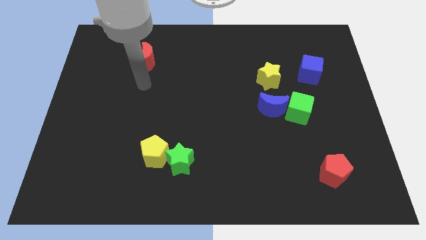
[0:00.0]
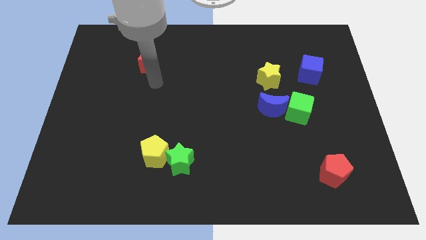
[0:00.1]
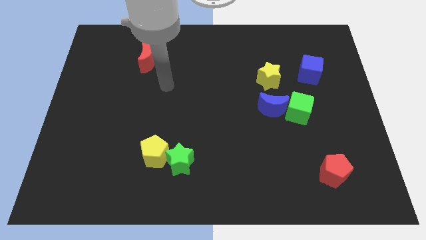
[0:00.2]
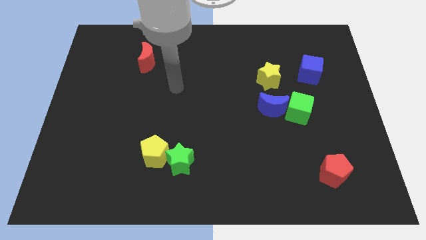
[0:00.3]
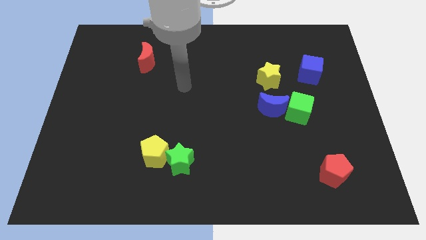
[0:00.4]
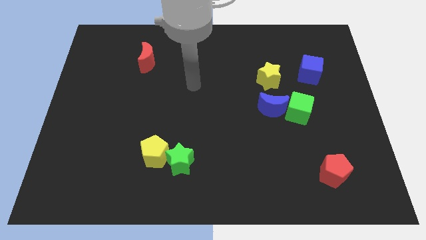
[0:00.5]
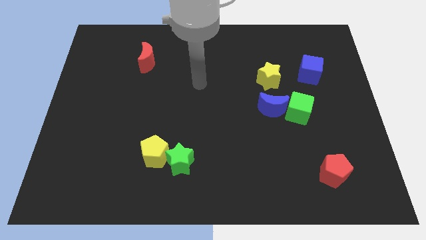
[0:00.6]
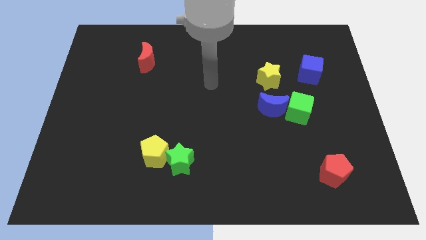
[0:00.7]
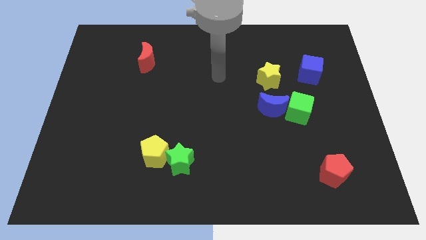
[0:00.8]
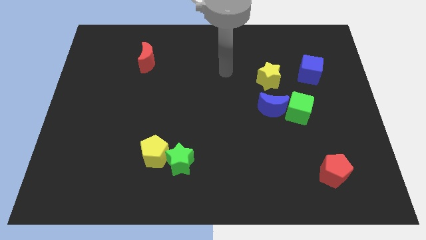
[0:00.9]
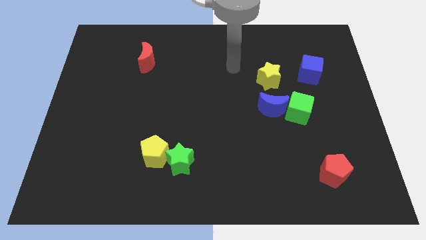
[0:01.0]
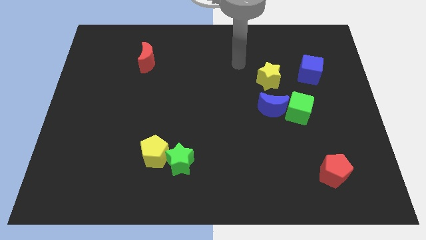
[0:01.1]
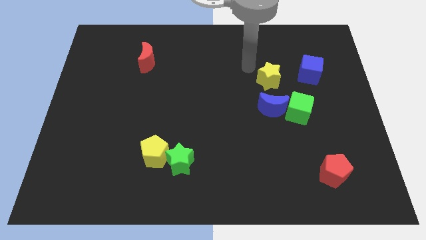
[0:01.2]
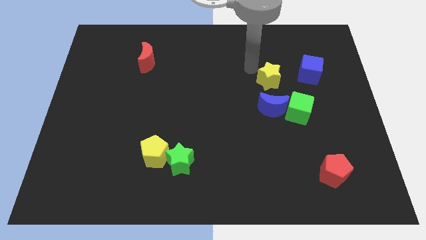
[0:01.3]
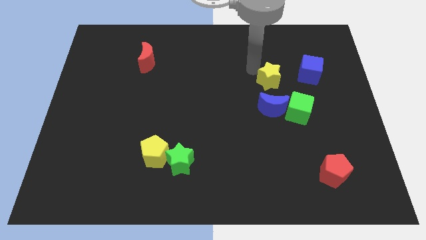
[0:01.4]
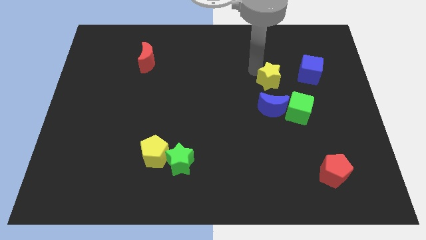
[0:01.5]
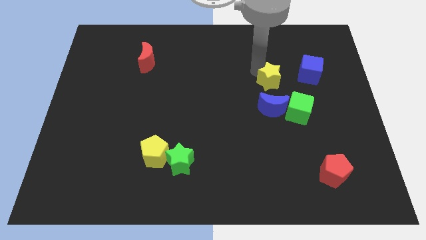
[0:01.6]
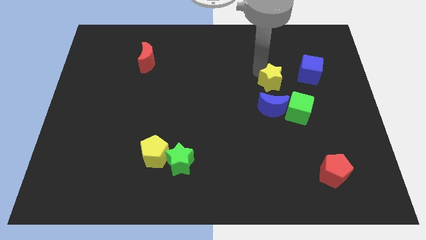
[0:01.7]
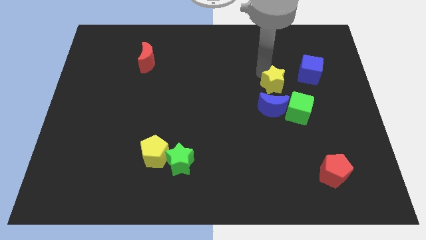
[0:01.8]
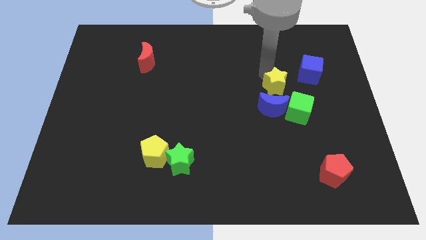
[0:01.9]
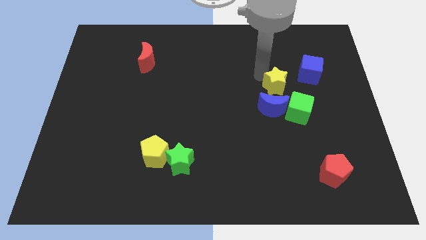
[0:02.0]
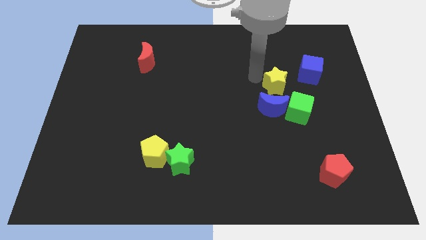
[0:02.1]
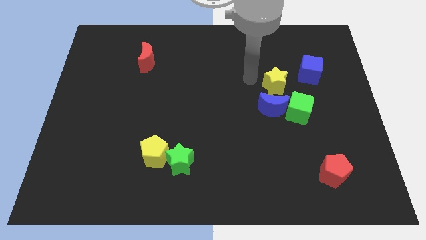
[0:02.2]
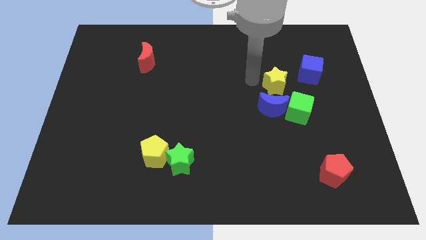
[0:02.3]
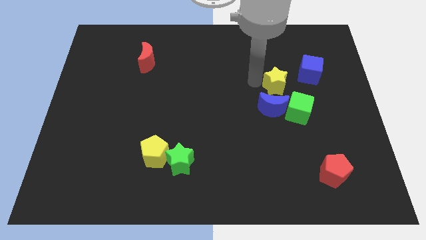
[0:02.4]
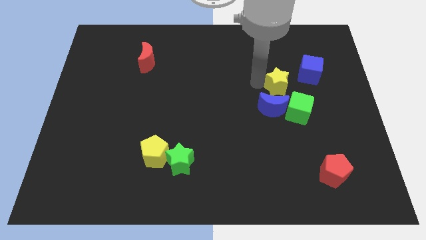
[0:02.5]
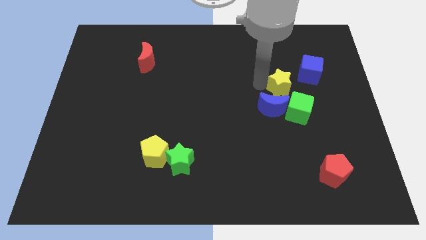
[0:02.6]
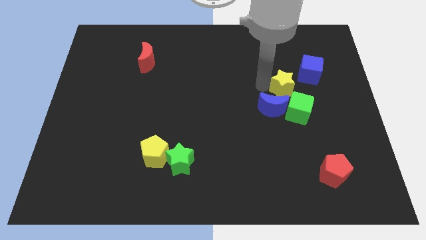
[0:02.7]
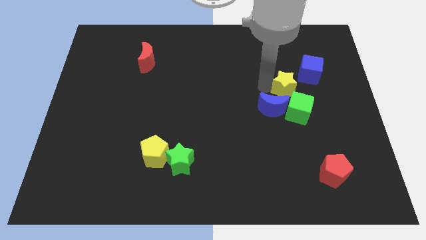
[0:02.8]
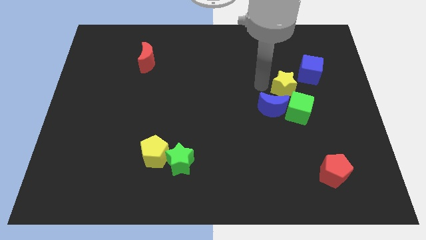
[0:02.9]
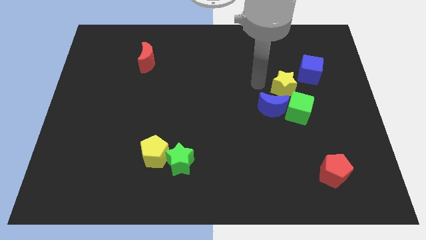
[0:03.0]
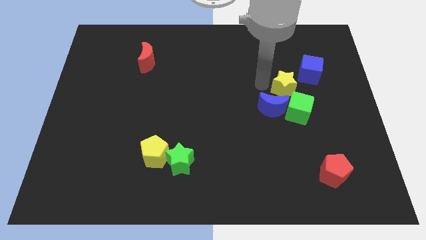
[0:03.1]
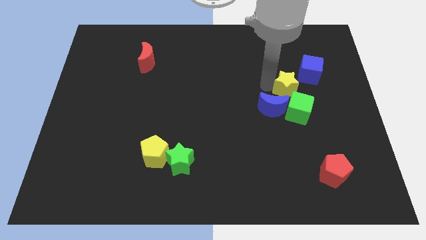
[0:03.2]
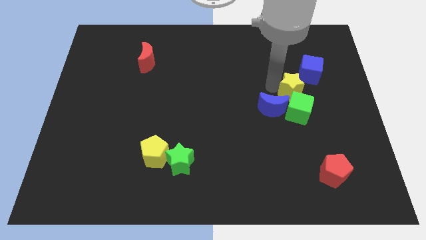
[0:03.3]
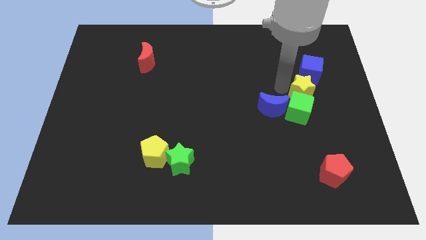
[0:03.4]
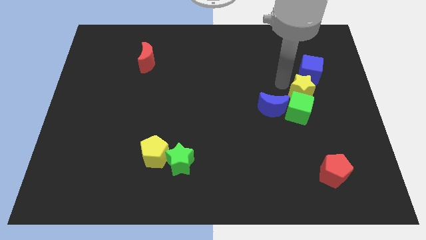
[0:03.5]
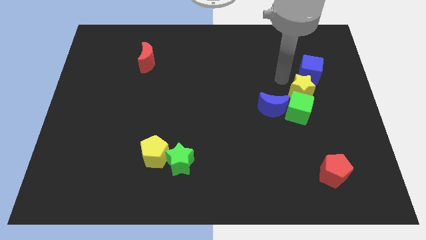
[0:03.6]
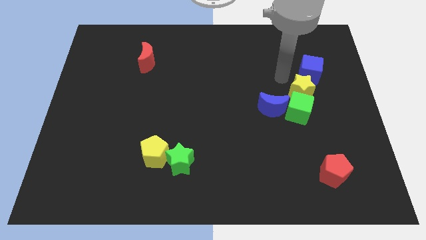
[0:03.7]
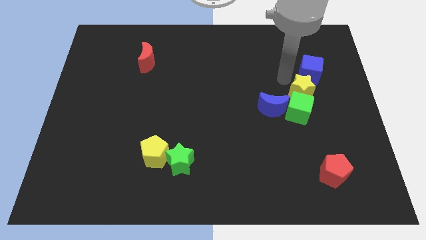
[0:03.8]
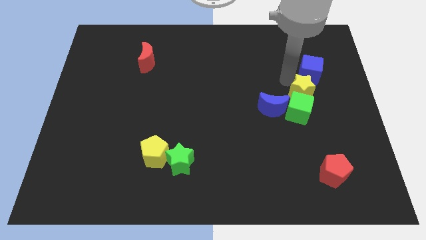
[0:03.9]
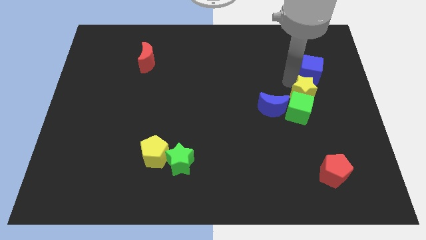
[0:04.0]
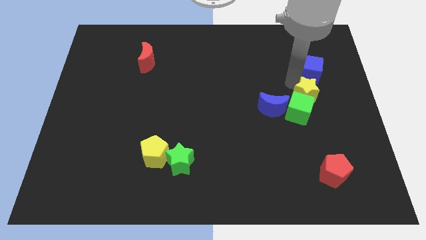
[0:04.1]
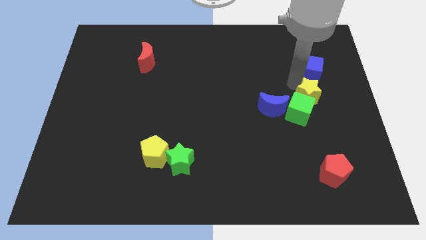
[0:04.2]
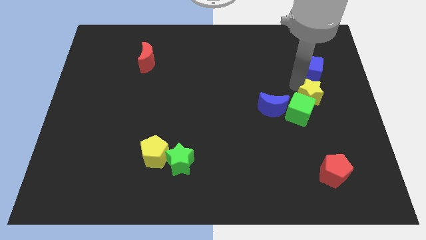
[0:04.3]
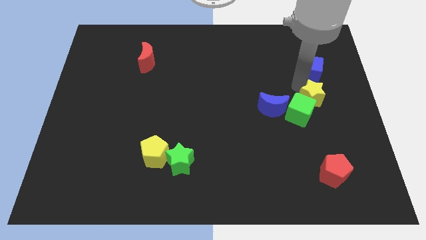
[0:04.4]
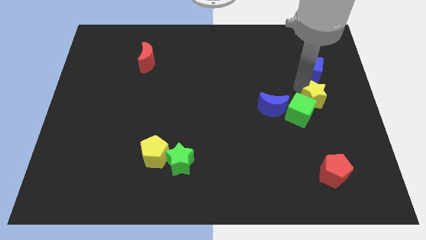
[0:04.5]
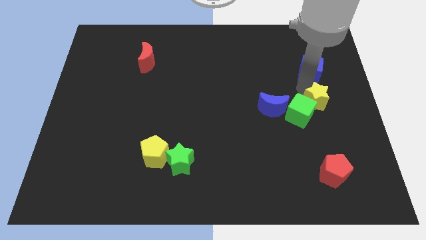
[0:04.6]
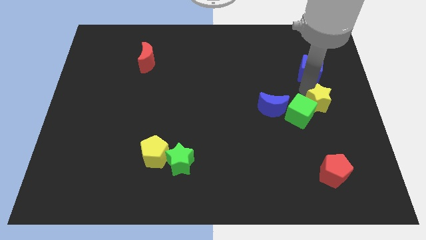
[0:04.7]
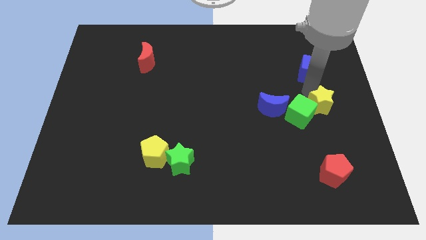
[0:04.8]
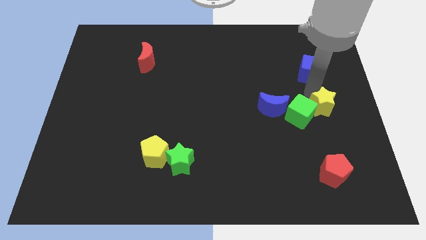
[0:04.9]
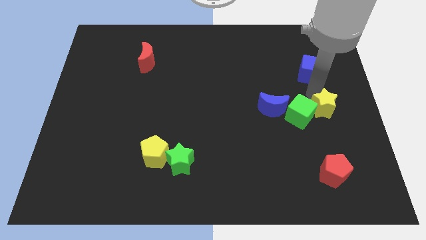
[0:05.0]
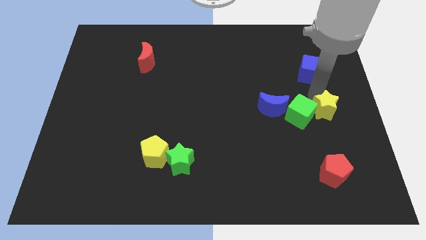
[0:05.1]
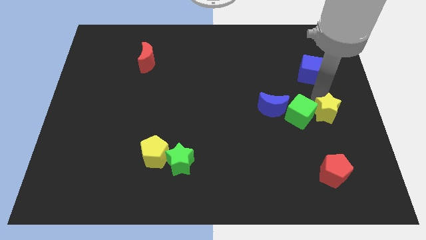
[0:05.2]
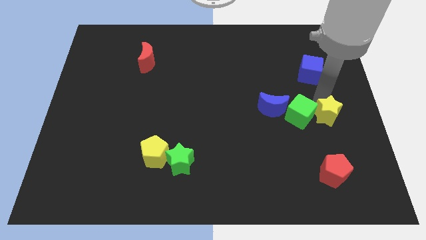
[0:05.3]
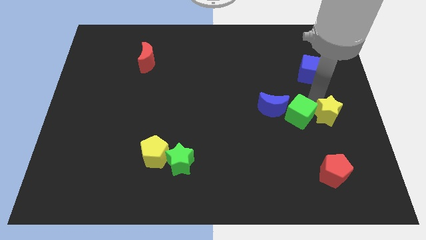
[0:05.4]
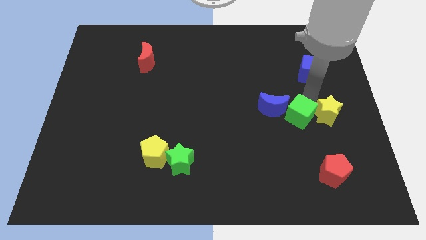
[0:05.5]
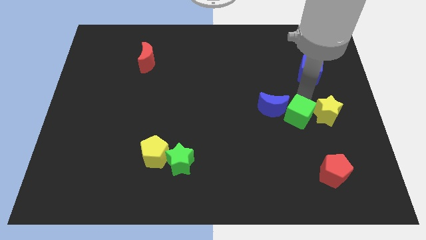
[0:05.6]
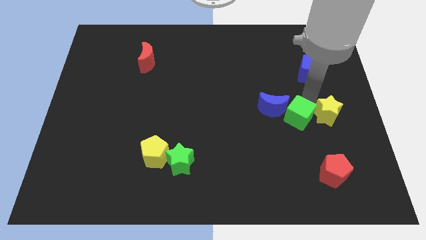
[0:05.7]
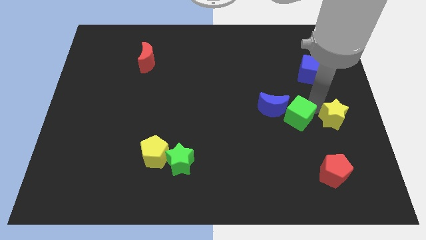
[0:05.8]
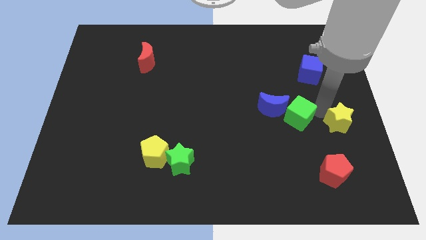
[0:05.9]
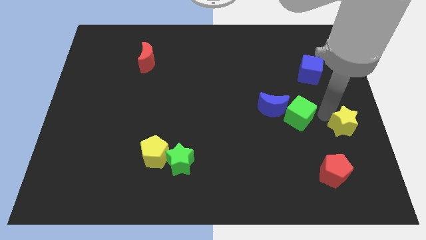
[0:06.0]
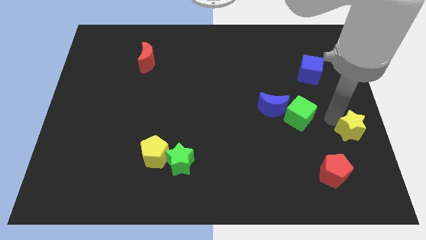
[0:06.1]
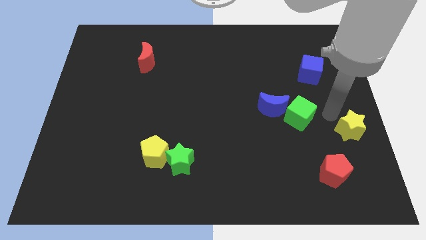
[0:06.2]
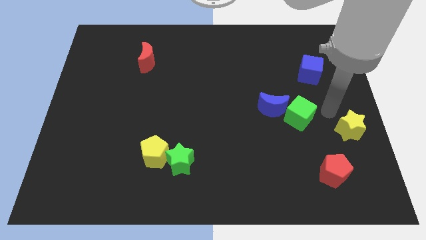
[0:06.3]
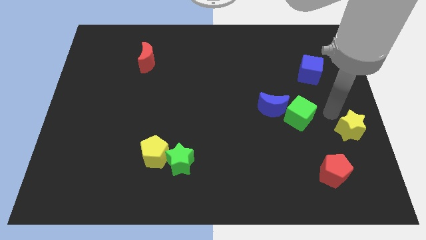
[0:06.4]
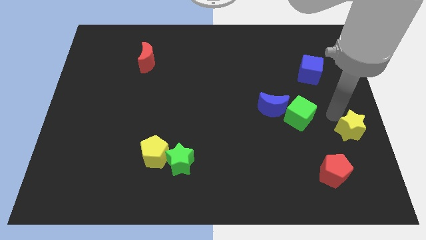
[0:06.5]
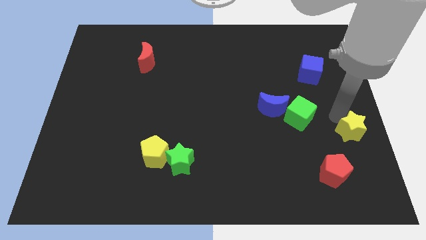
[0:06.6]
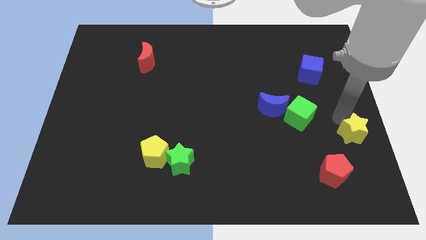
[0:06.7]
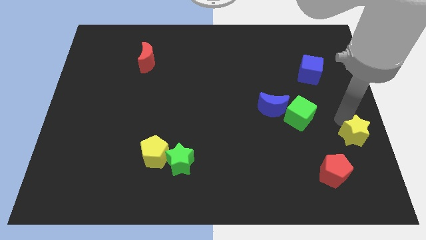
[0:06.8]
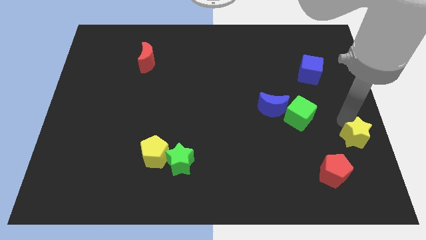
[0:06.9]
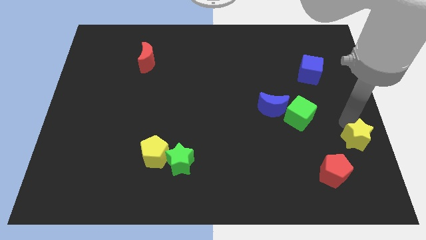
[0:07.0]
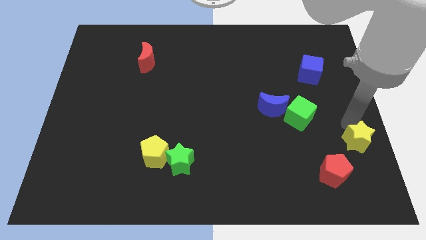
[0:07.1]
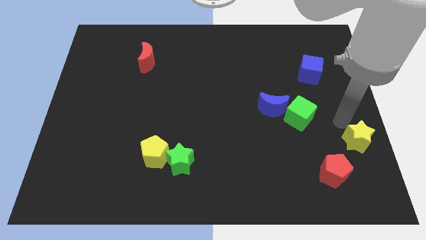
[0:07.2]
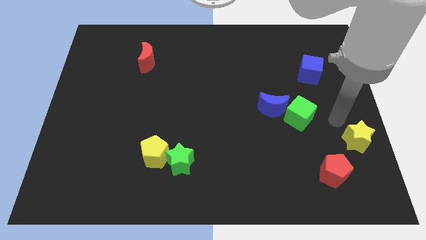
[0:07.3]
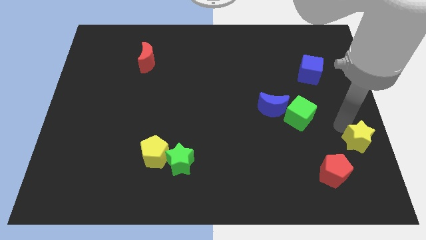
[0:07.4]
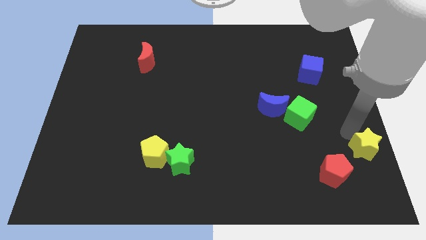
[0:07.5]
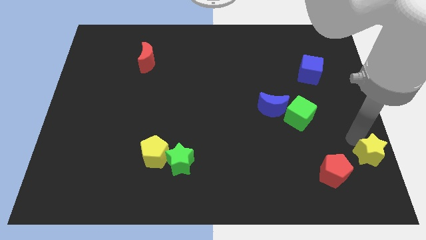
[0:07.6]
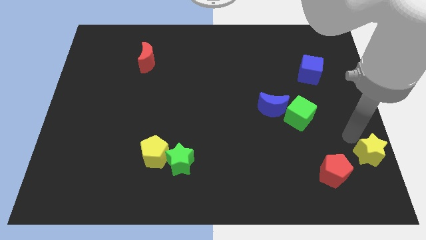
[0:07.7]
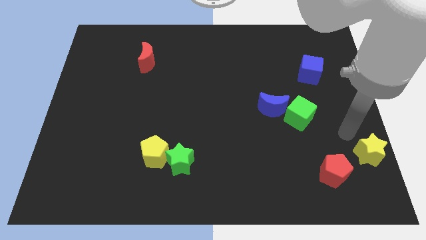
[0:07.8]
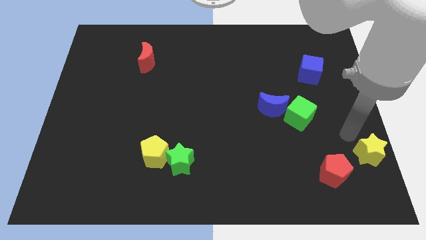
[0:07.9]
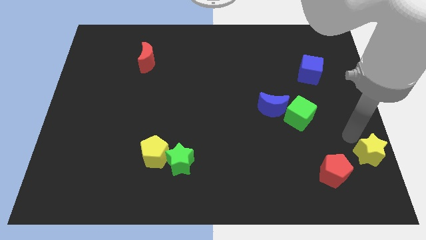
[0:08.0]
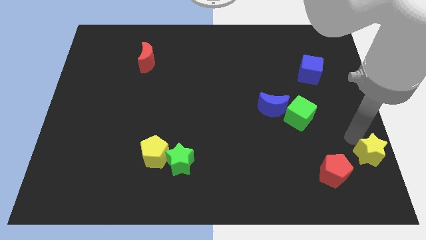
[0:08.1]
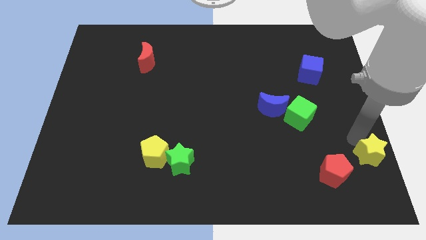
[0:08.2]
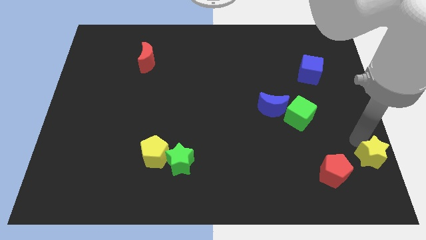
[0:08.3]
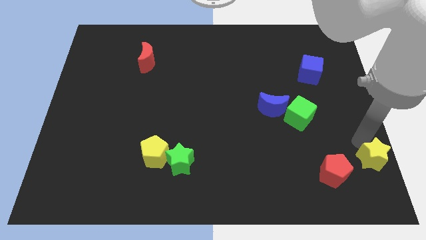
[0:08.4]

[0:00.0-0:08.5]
push the yellow star to the bottom right
